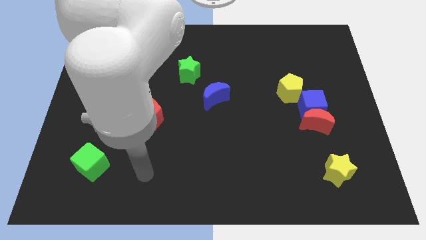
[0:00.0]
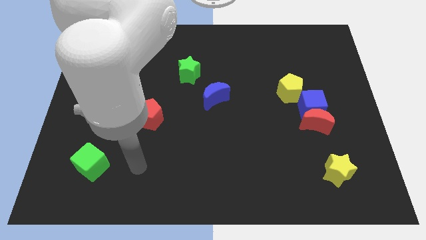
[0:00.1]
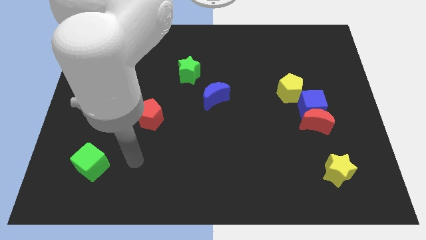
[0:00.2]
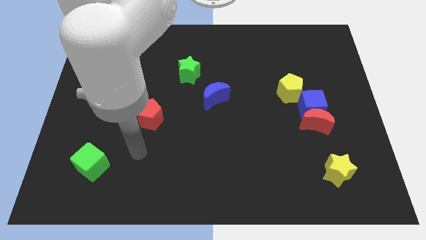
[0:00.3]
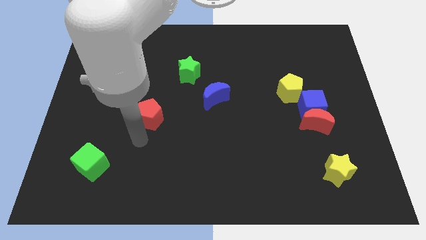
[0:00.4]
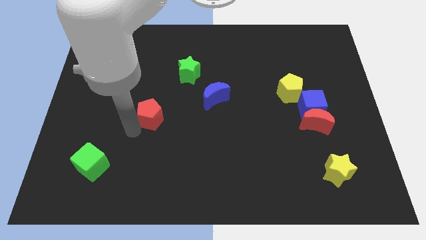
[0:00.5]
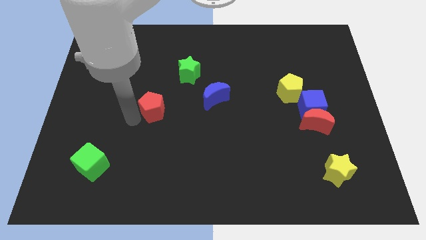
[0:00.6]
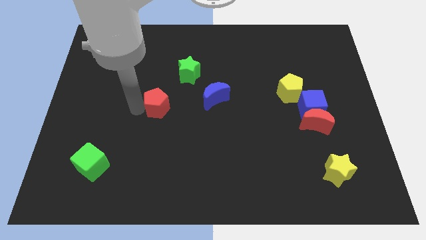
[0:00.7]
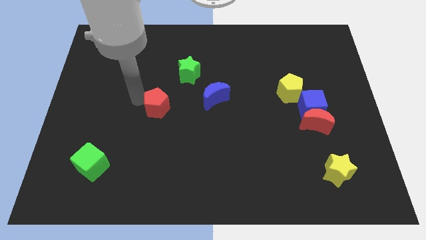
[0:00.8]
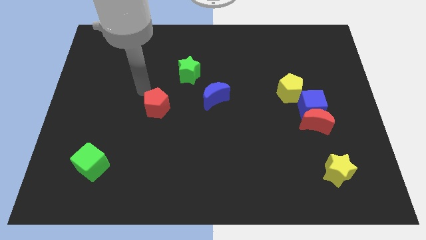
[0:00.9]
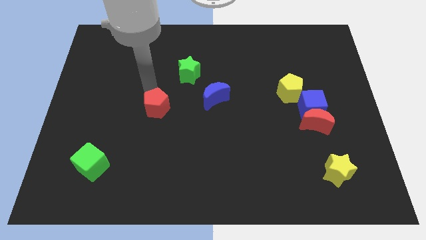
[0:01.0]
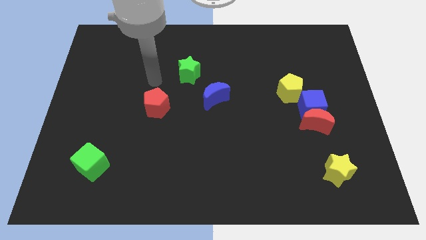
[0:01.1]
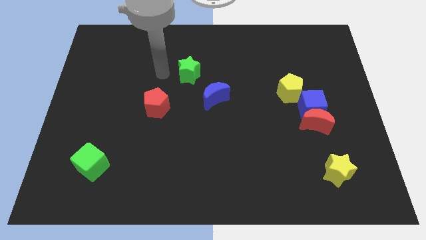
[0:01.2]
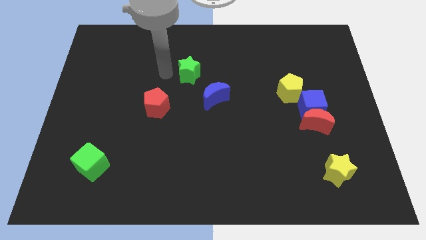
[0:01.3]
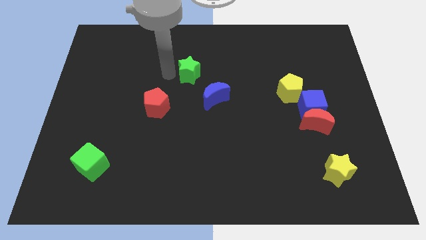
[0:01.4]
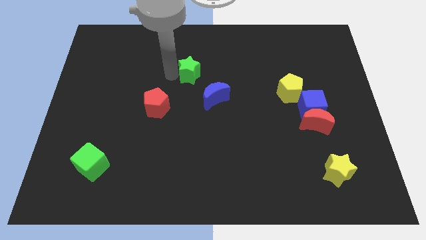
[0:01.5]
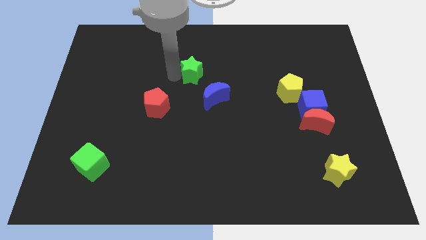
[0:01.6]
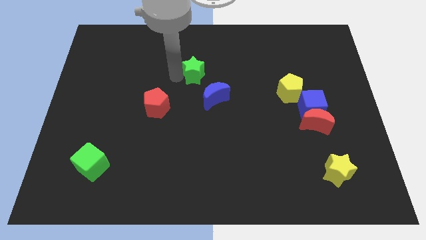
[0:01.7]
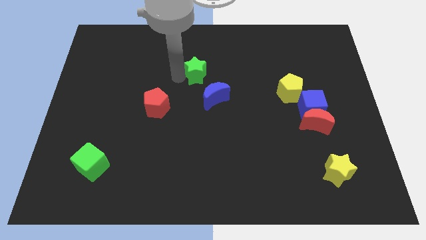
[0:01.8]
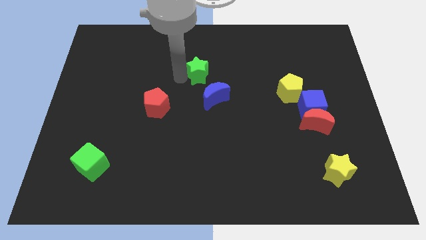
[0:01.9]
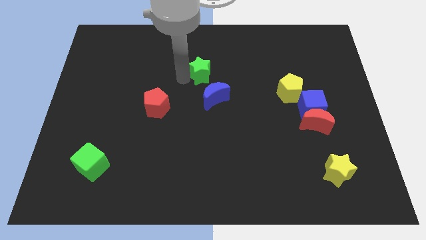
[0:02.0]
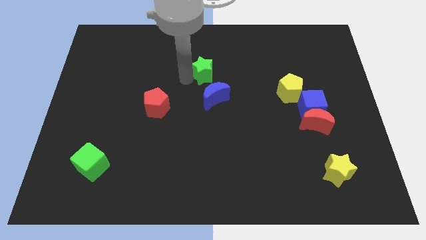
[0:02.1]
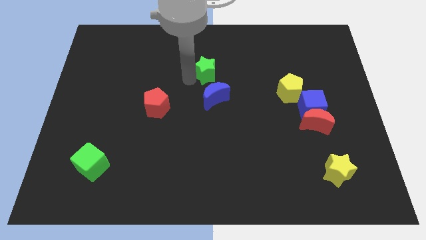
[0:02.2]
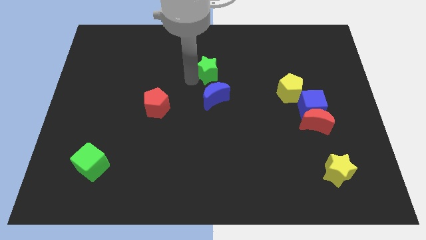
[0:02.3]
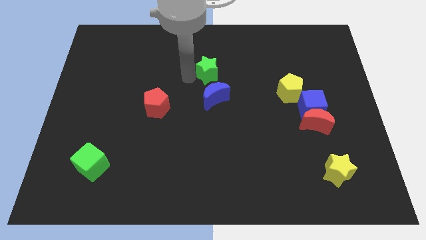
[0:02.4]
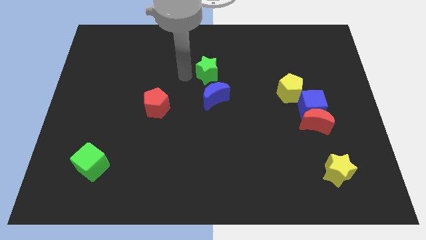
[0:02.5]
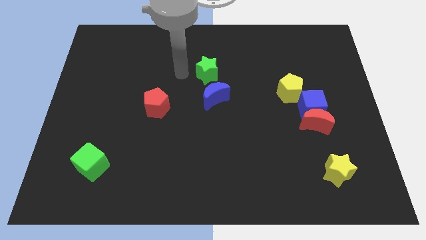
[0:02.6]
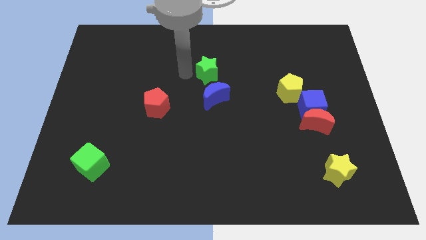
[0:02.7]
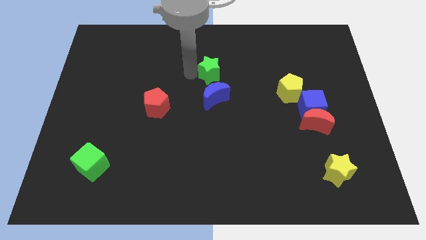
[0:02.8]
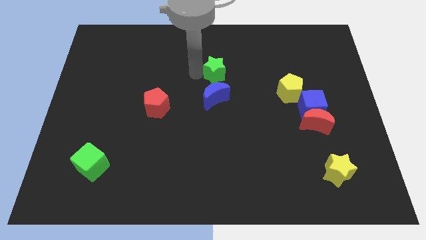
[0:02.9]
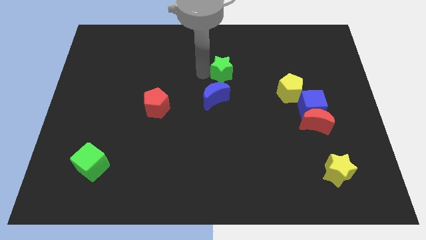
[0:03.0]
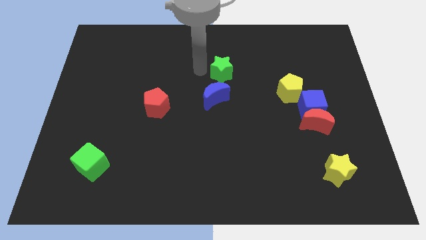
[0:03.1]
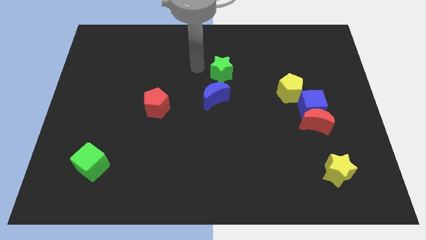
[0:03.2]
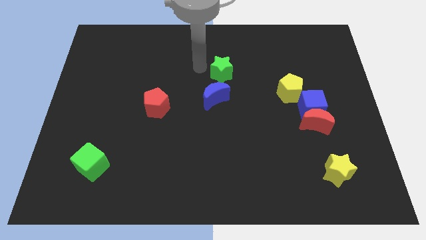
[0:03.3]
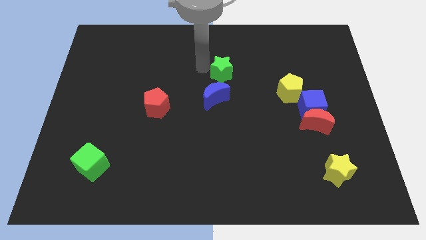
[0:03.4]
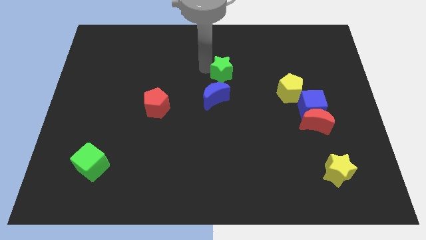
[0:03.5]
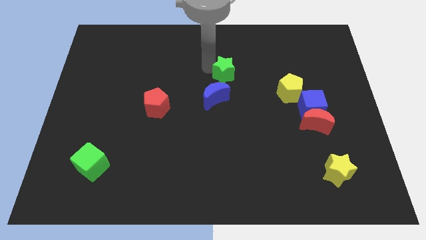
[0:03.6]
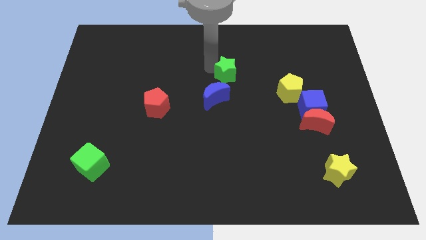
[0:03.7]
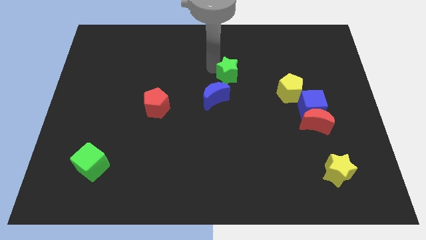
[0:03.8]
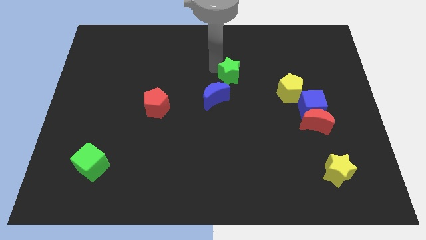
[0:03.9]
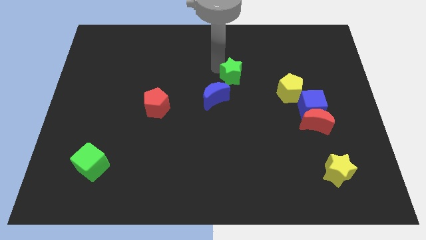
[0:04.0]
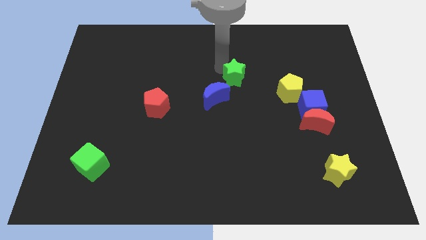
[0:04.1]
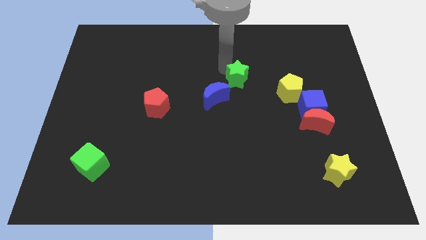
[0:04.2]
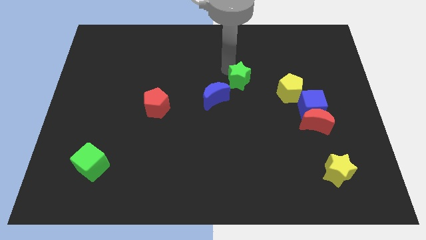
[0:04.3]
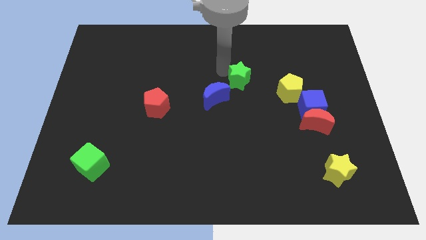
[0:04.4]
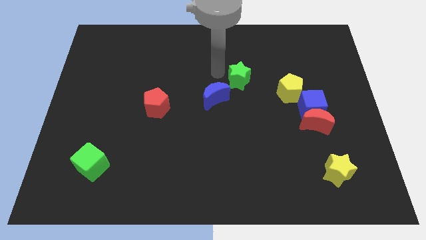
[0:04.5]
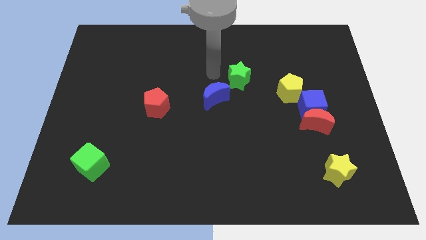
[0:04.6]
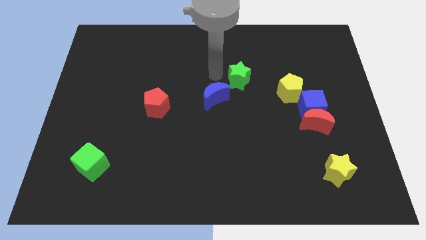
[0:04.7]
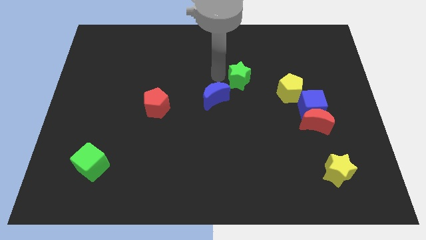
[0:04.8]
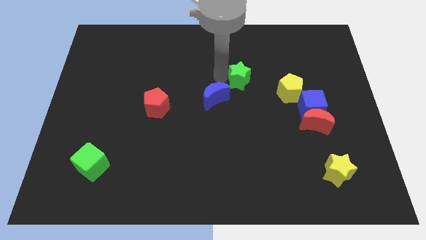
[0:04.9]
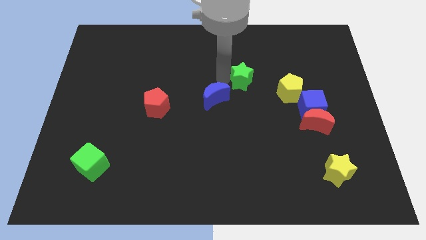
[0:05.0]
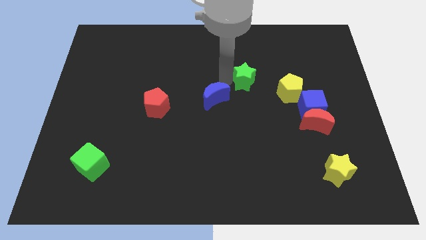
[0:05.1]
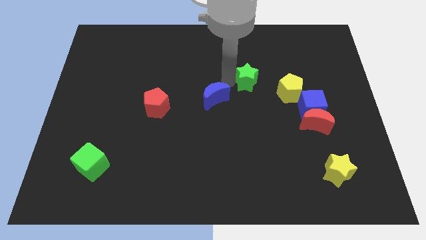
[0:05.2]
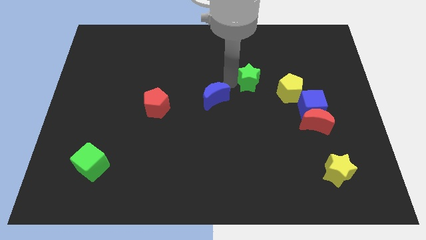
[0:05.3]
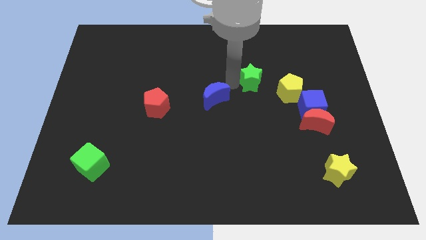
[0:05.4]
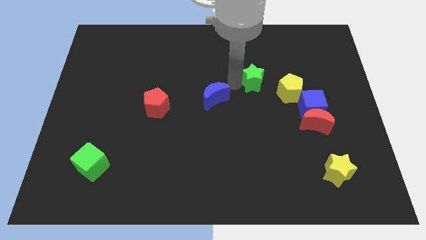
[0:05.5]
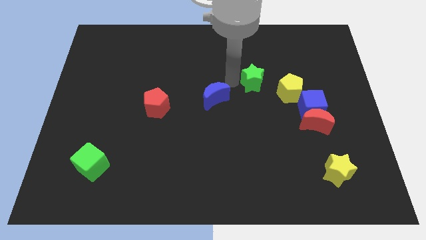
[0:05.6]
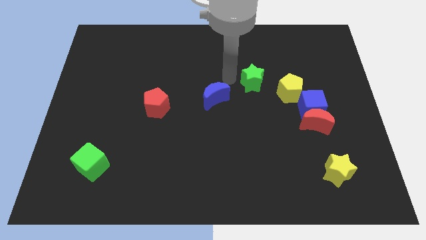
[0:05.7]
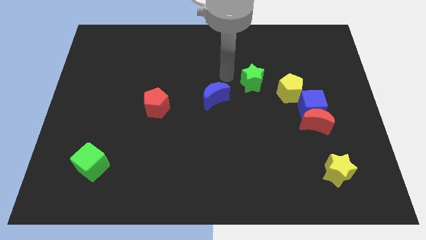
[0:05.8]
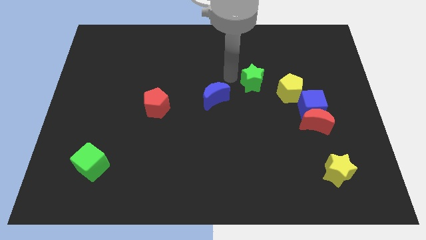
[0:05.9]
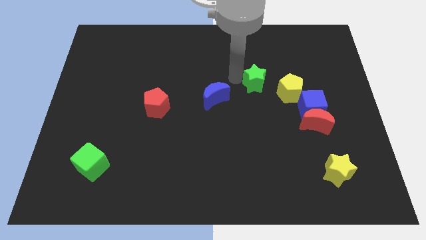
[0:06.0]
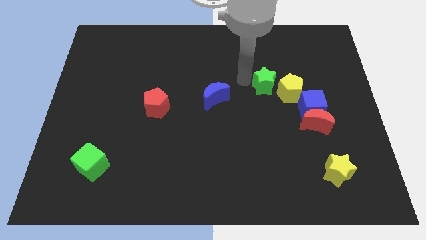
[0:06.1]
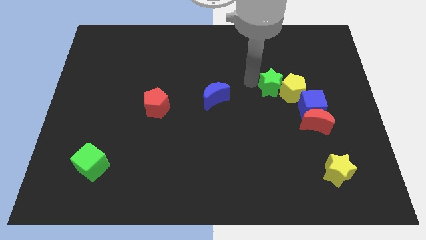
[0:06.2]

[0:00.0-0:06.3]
put the green star close to the yellow pentagon

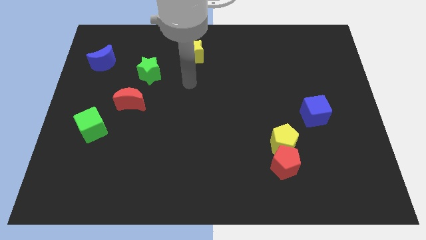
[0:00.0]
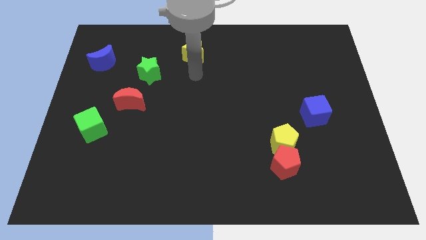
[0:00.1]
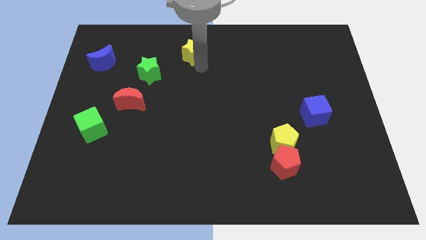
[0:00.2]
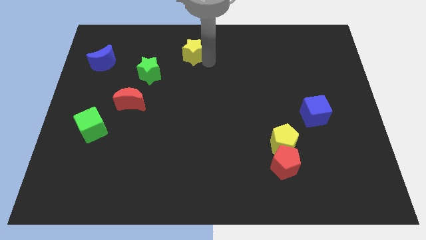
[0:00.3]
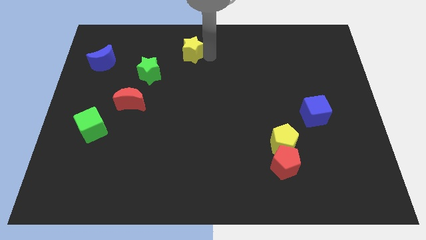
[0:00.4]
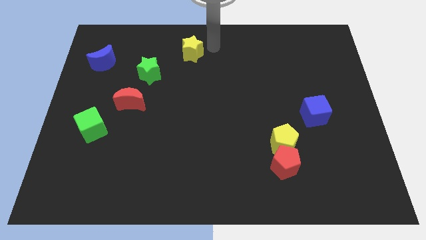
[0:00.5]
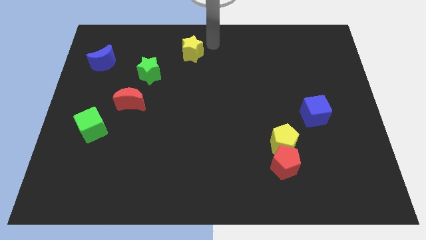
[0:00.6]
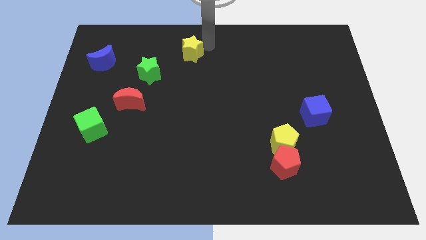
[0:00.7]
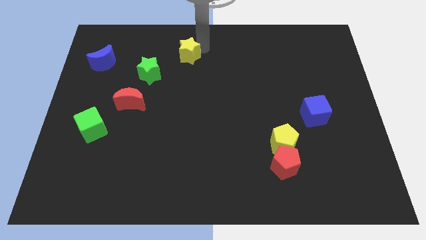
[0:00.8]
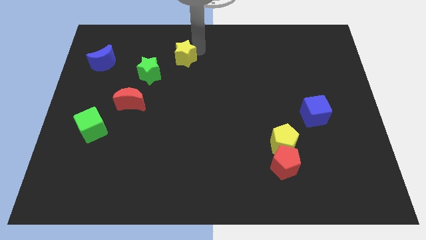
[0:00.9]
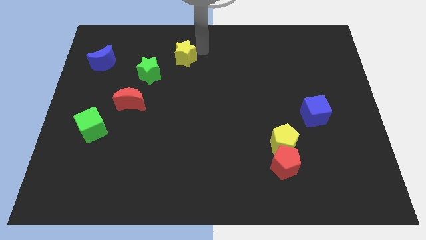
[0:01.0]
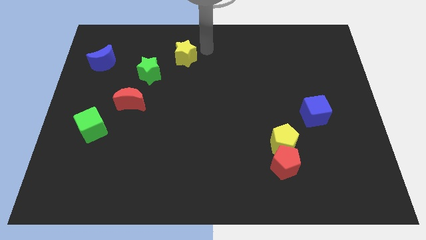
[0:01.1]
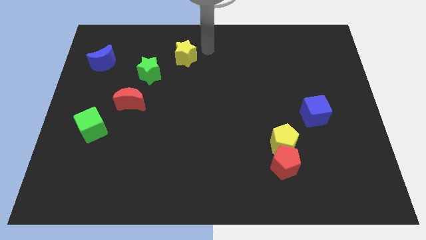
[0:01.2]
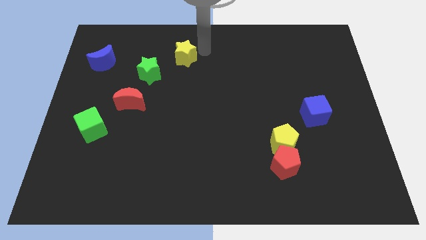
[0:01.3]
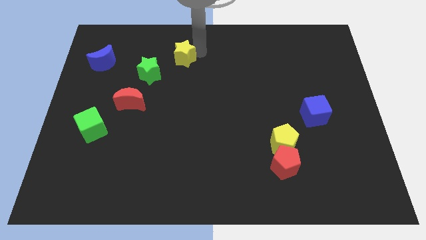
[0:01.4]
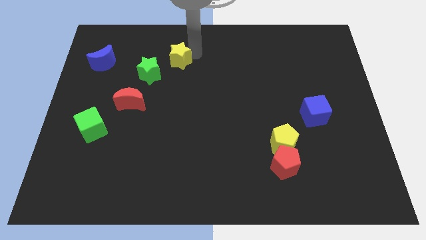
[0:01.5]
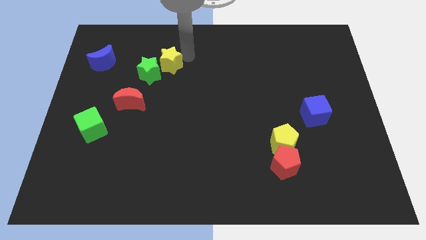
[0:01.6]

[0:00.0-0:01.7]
put the yellow star close to the green star
